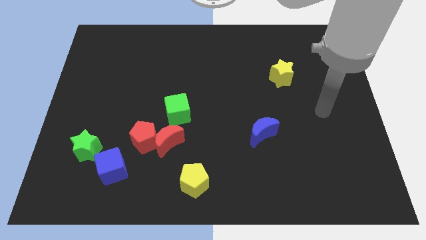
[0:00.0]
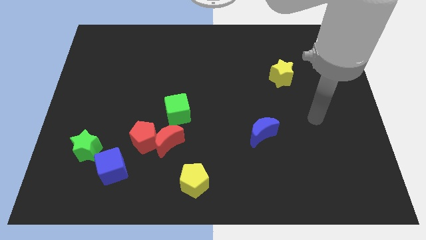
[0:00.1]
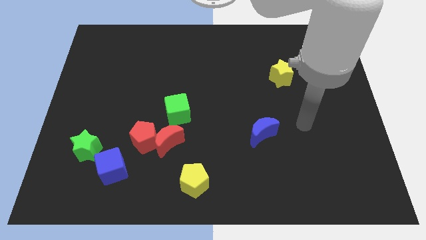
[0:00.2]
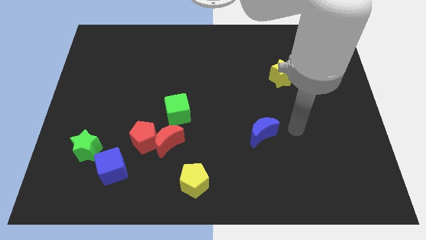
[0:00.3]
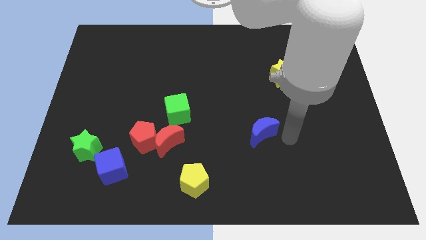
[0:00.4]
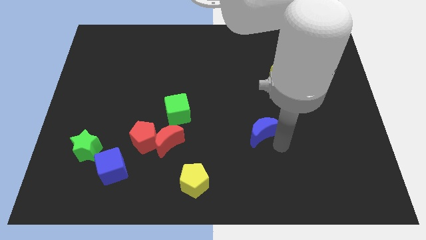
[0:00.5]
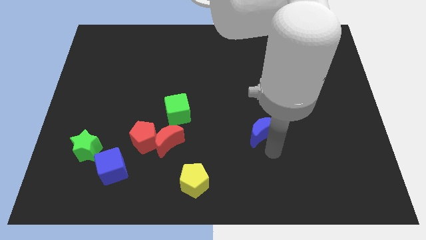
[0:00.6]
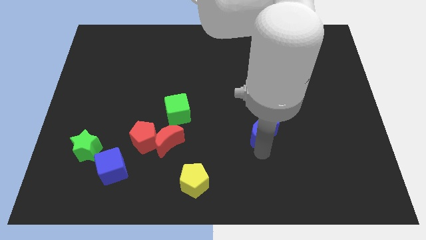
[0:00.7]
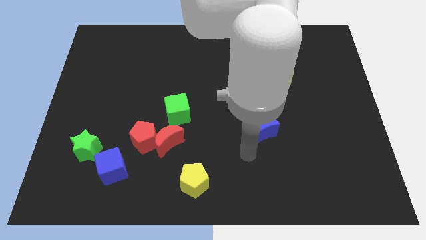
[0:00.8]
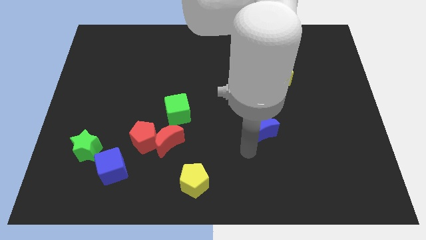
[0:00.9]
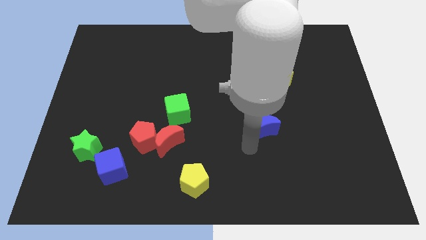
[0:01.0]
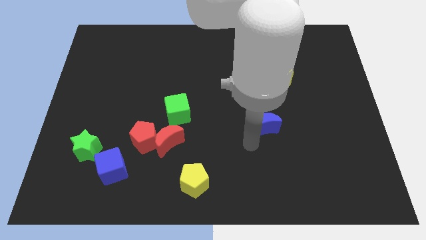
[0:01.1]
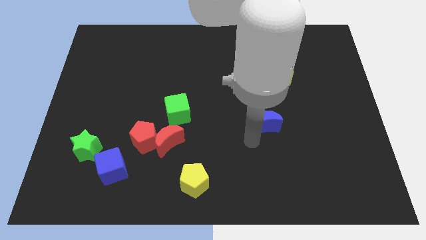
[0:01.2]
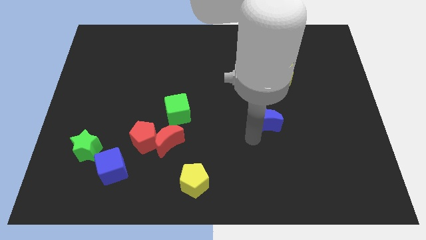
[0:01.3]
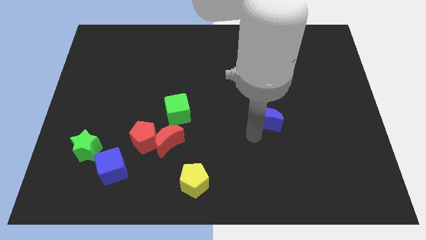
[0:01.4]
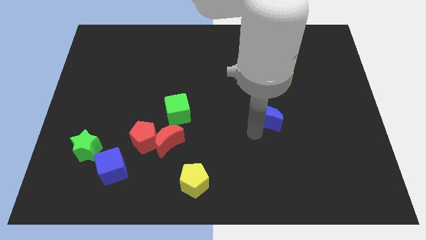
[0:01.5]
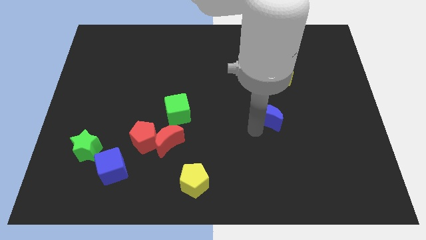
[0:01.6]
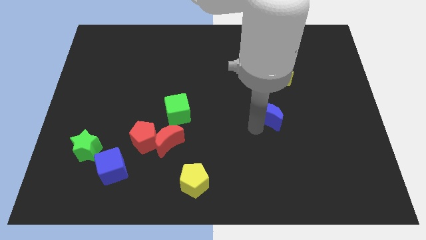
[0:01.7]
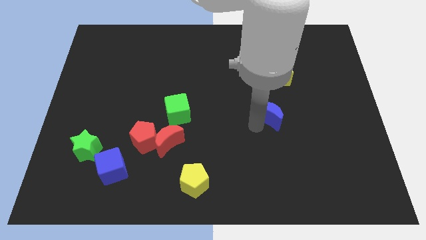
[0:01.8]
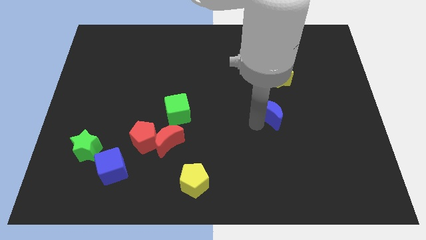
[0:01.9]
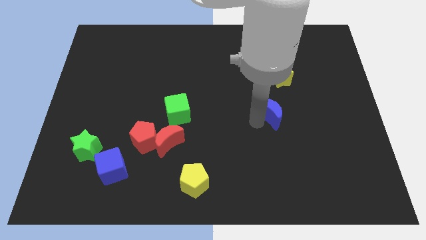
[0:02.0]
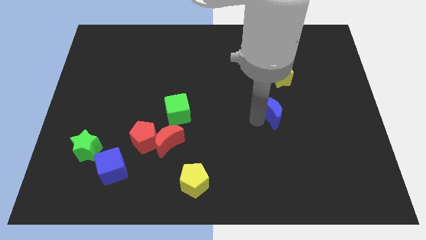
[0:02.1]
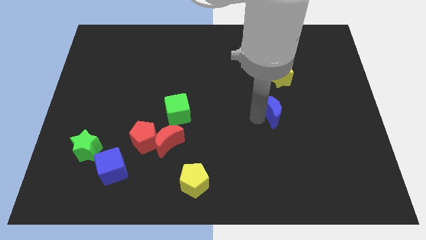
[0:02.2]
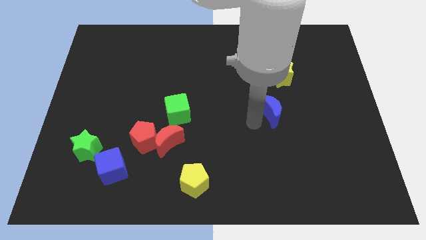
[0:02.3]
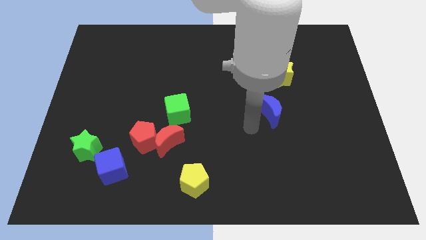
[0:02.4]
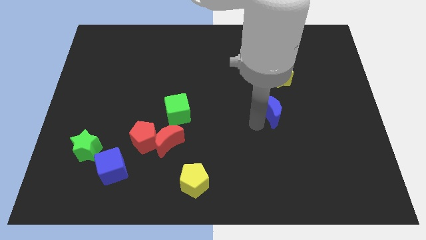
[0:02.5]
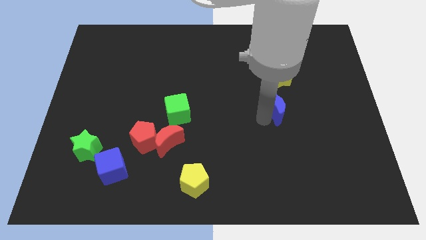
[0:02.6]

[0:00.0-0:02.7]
push the blue moon upwards and right diagonally a little bit

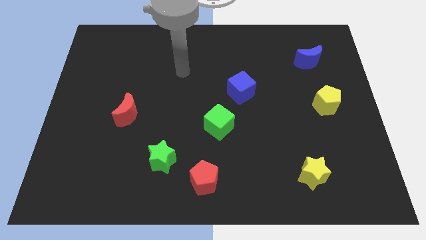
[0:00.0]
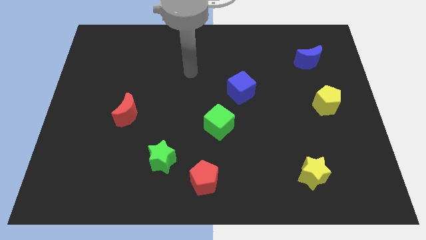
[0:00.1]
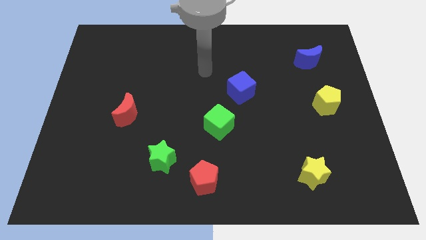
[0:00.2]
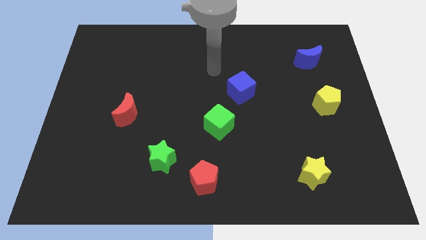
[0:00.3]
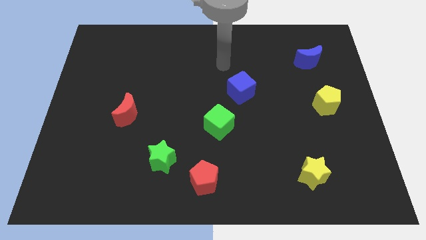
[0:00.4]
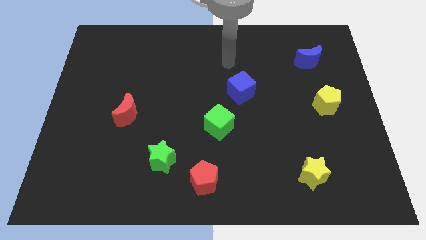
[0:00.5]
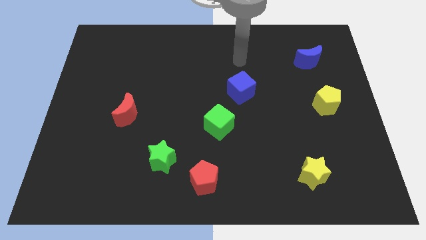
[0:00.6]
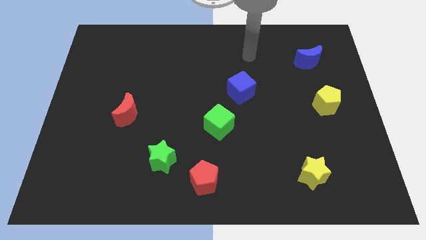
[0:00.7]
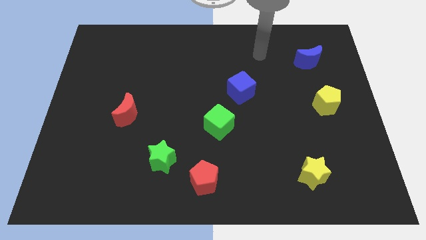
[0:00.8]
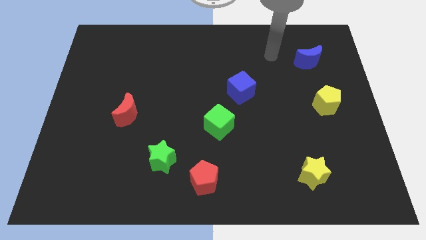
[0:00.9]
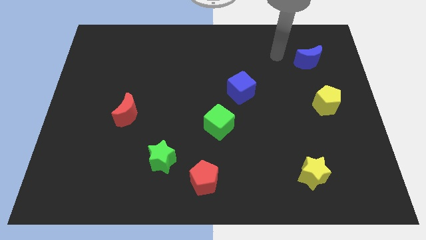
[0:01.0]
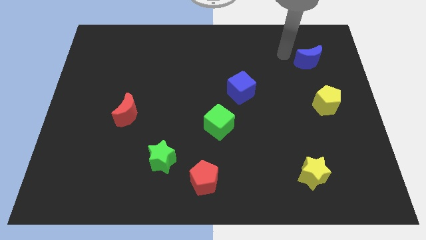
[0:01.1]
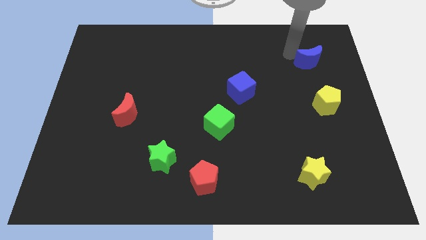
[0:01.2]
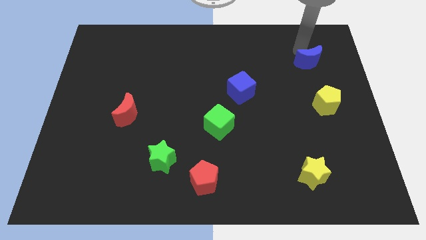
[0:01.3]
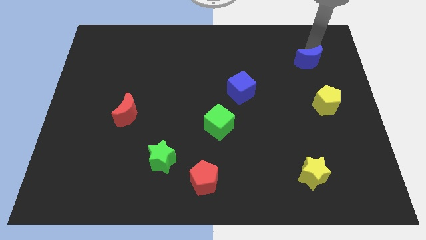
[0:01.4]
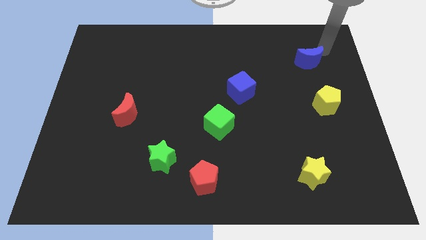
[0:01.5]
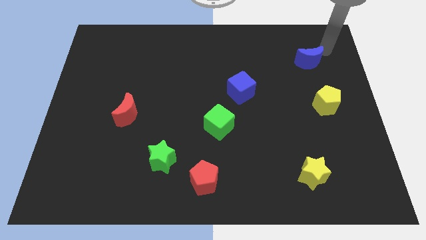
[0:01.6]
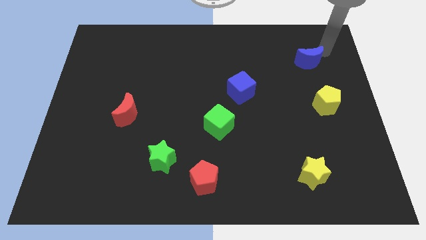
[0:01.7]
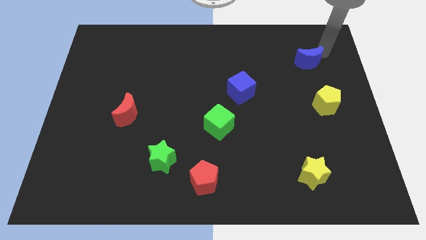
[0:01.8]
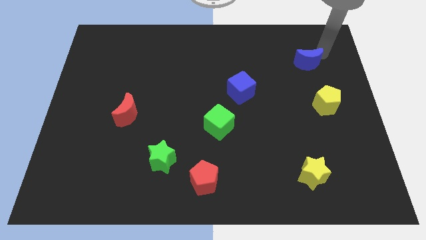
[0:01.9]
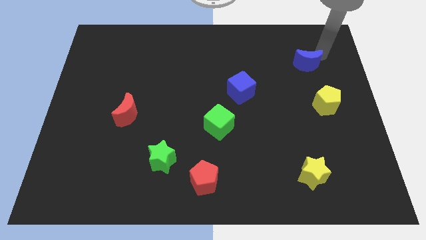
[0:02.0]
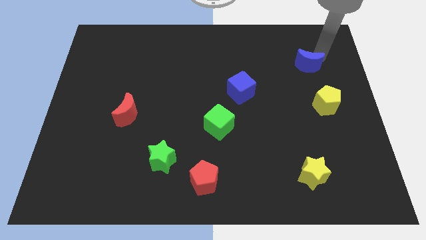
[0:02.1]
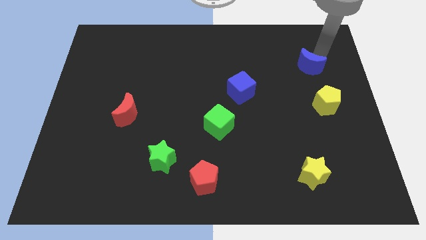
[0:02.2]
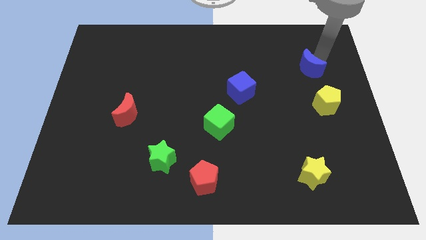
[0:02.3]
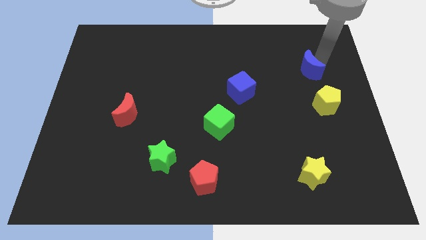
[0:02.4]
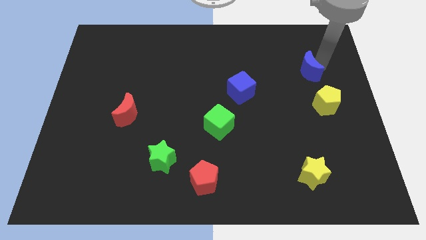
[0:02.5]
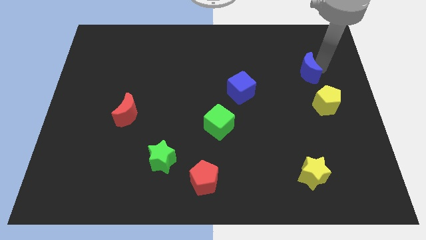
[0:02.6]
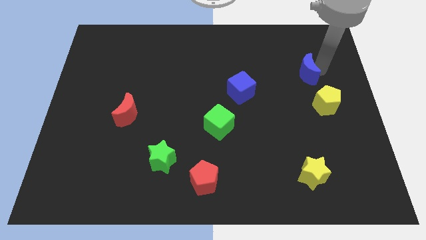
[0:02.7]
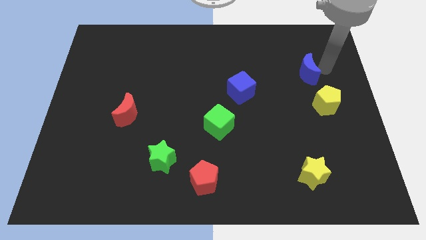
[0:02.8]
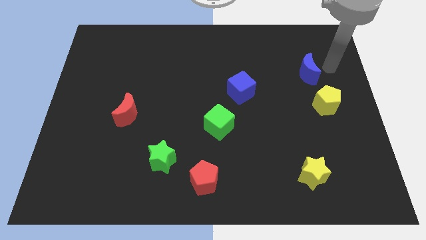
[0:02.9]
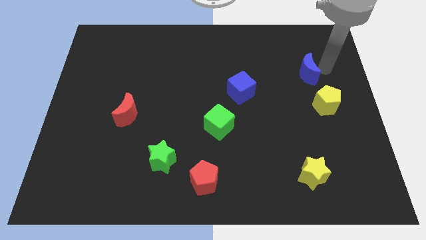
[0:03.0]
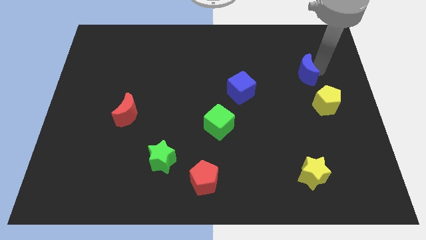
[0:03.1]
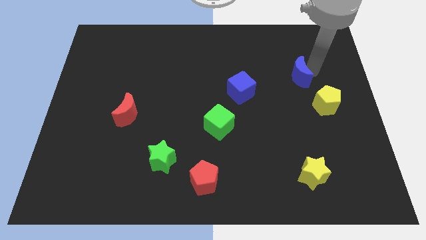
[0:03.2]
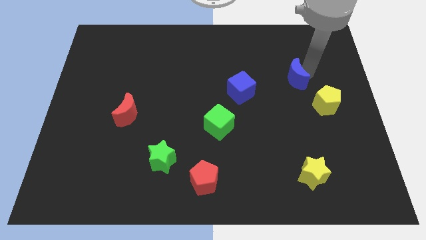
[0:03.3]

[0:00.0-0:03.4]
push the blue moon down and left slightly

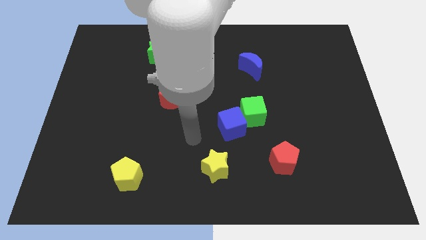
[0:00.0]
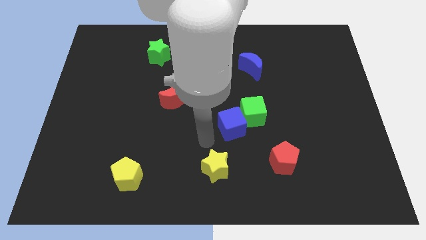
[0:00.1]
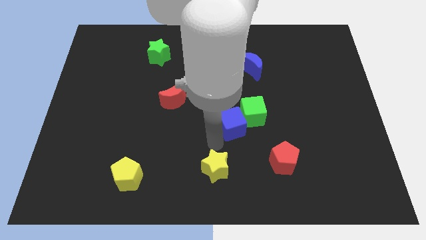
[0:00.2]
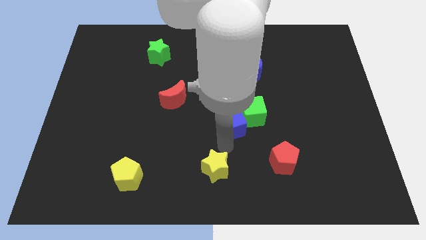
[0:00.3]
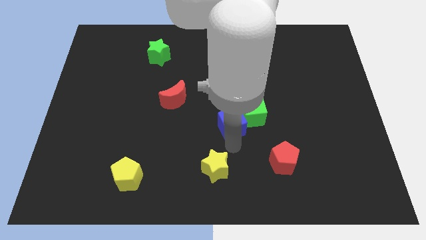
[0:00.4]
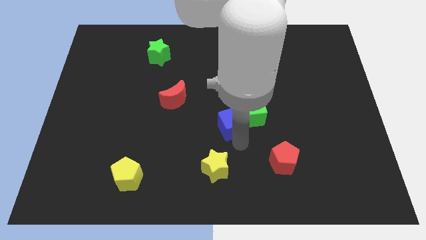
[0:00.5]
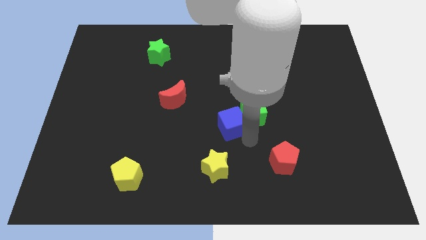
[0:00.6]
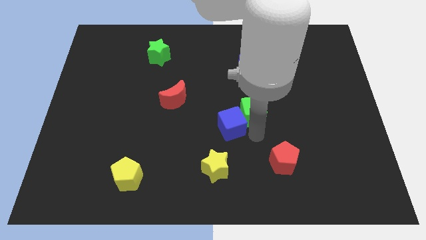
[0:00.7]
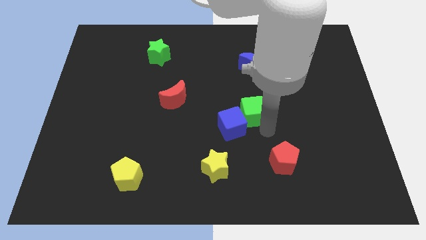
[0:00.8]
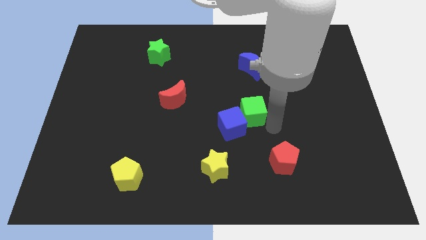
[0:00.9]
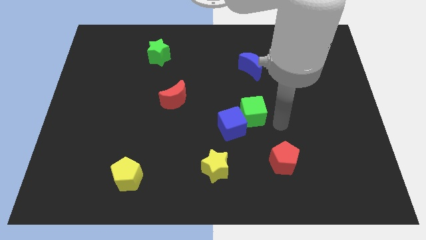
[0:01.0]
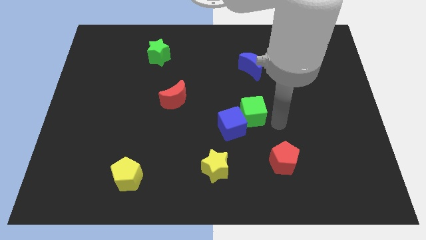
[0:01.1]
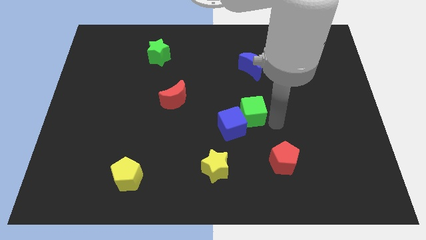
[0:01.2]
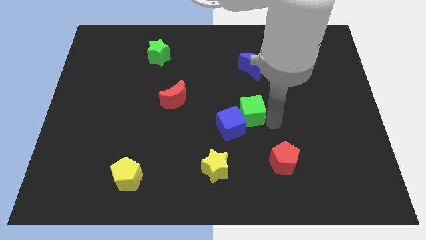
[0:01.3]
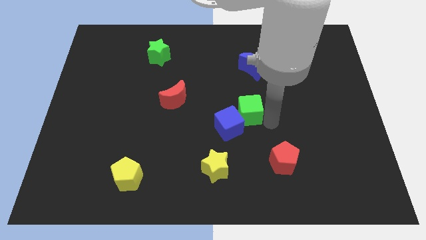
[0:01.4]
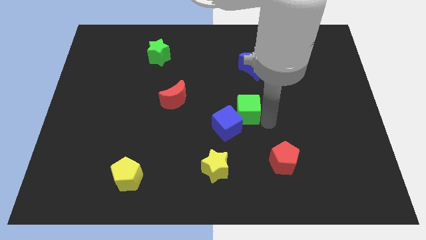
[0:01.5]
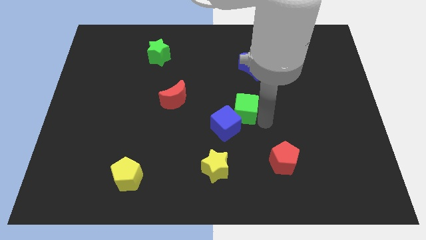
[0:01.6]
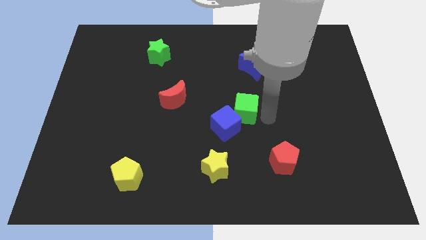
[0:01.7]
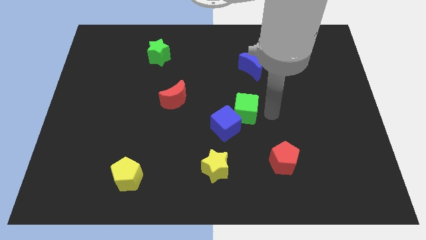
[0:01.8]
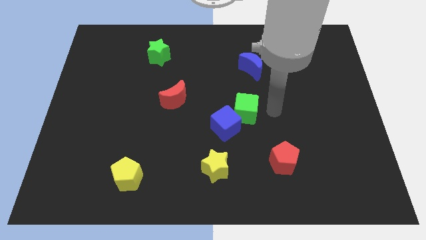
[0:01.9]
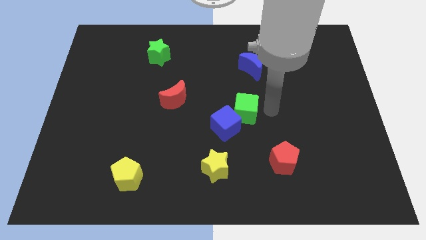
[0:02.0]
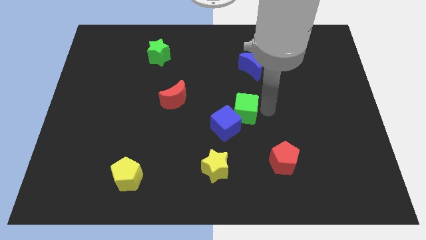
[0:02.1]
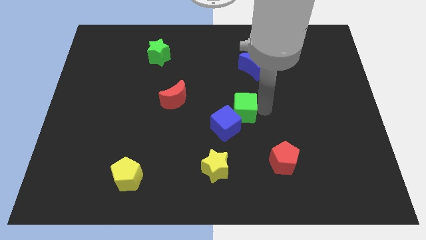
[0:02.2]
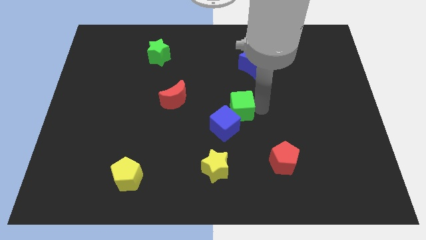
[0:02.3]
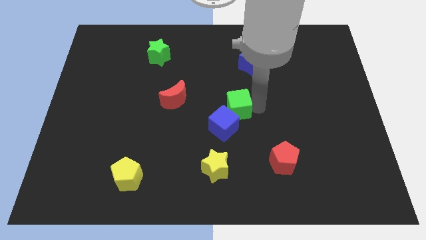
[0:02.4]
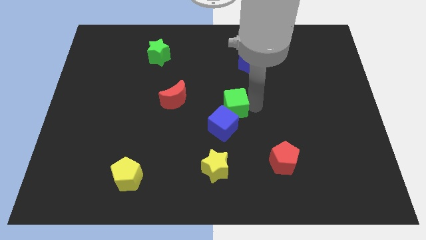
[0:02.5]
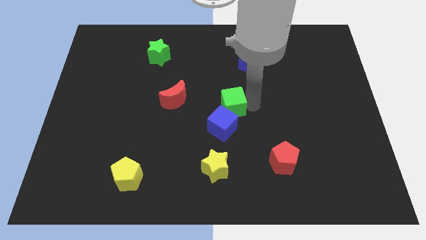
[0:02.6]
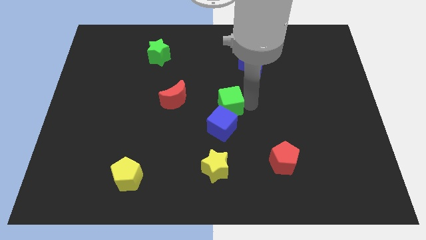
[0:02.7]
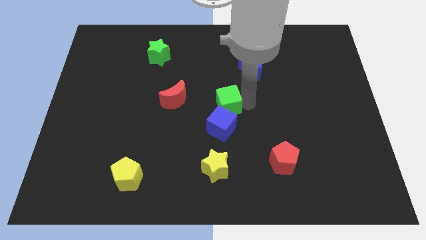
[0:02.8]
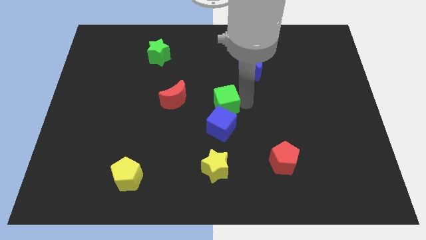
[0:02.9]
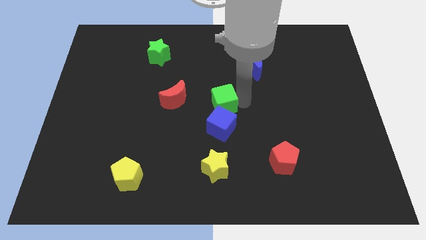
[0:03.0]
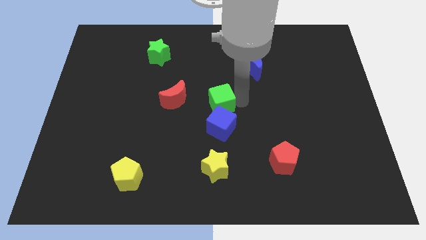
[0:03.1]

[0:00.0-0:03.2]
push the green cube to the left somewhat
